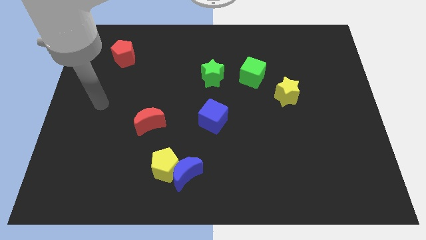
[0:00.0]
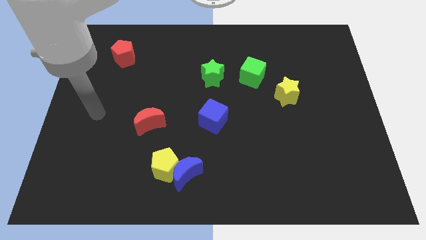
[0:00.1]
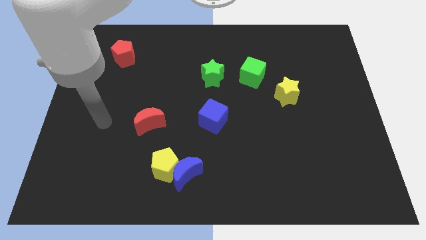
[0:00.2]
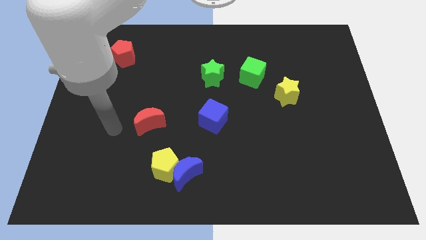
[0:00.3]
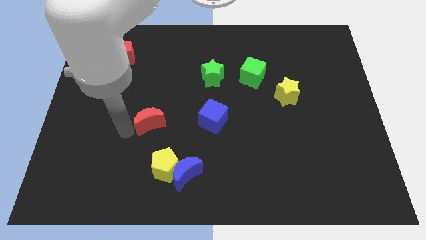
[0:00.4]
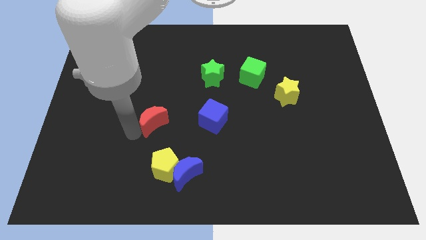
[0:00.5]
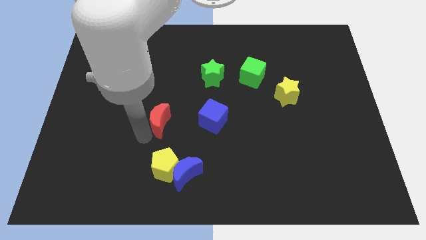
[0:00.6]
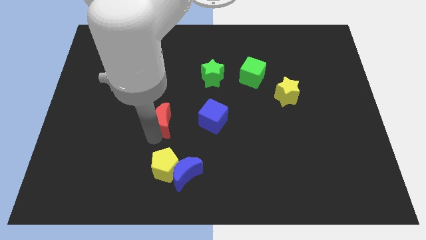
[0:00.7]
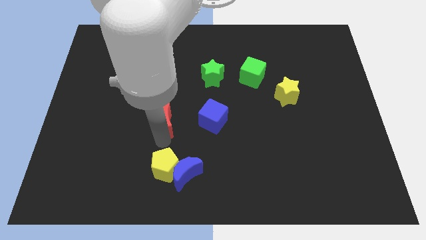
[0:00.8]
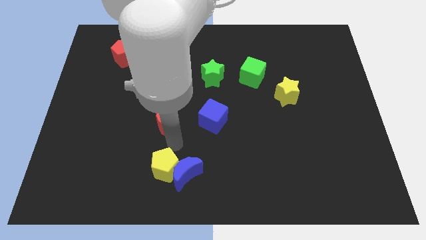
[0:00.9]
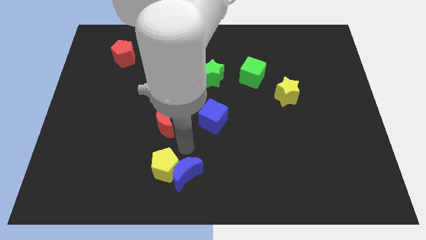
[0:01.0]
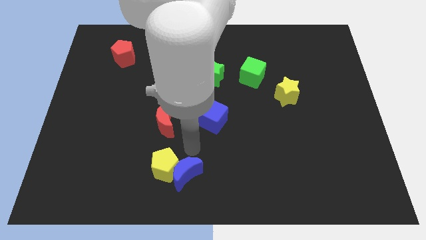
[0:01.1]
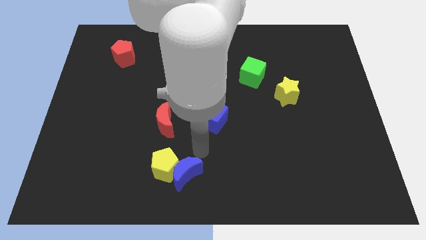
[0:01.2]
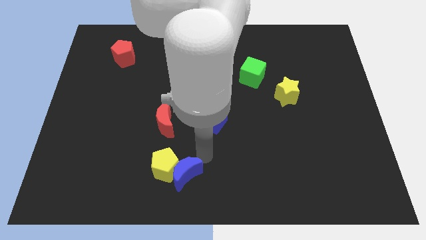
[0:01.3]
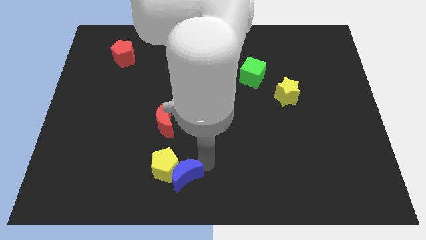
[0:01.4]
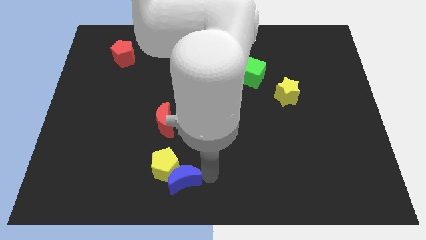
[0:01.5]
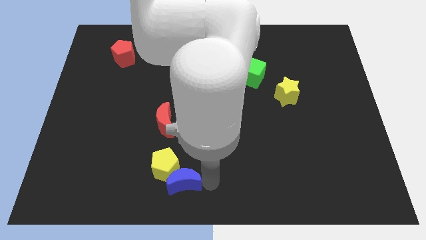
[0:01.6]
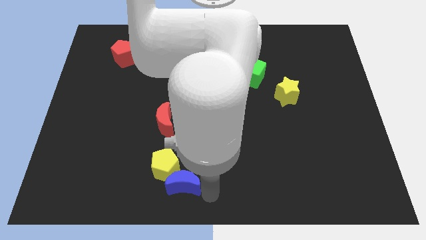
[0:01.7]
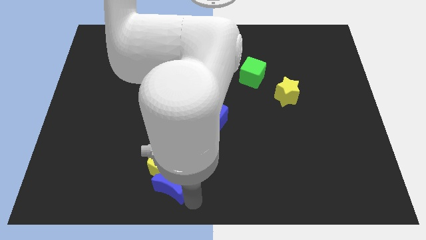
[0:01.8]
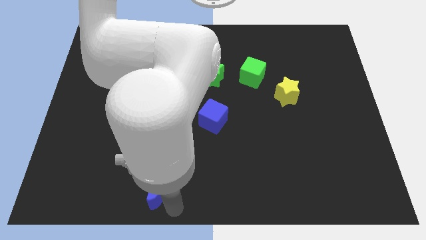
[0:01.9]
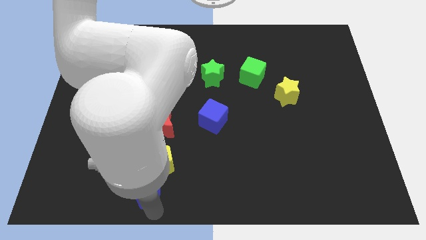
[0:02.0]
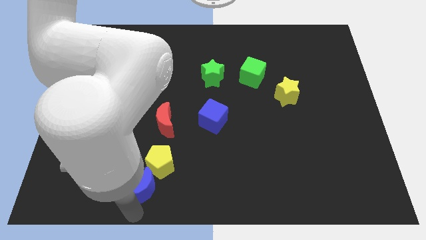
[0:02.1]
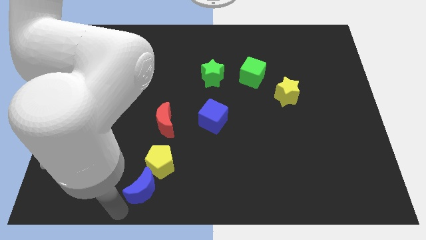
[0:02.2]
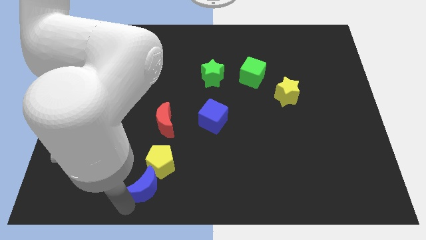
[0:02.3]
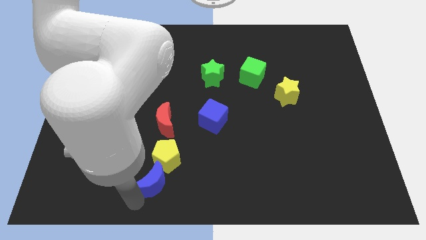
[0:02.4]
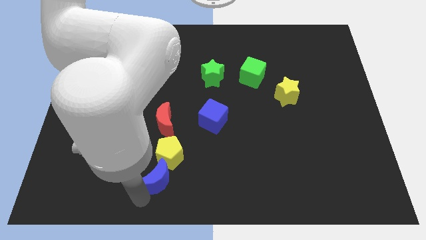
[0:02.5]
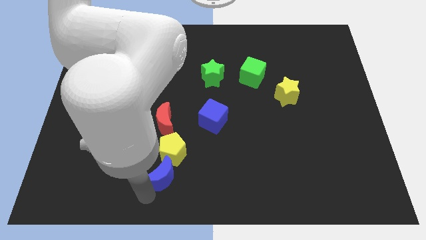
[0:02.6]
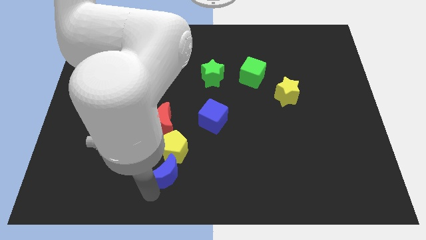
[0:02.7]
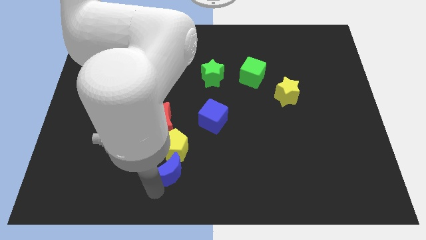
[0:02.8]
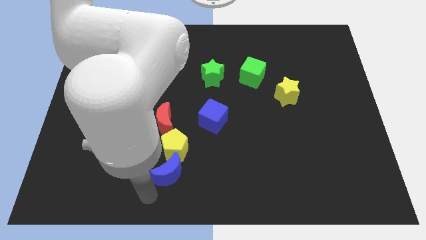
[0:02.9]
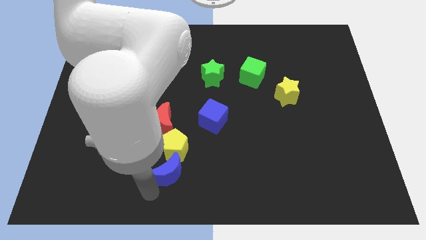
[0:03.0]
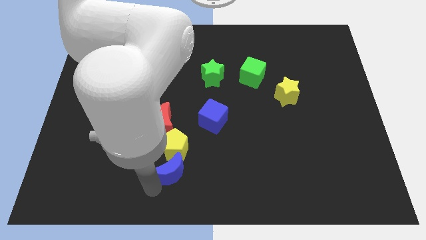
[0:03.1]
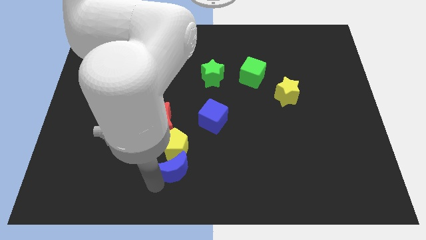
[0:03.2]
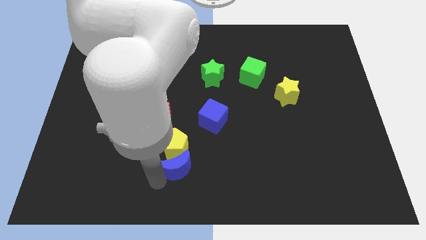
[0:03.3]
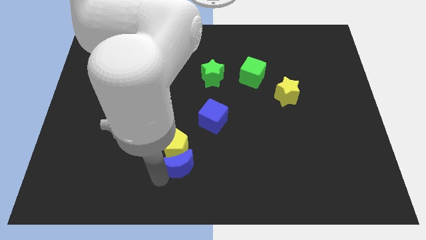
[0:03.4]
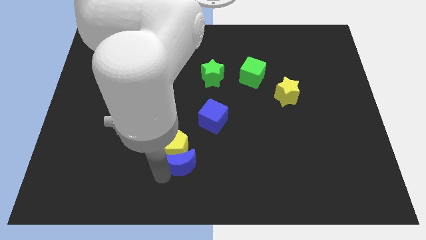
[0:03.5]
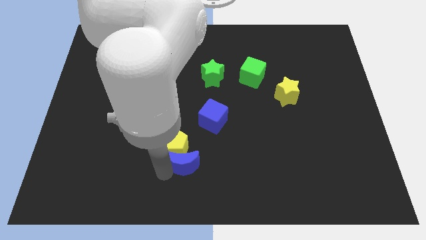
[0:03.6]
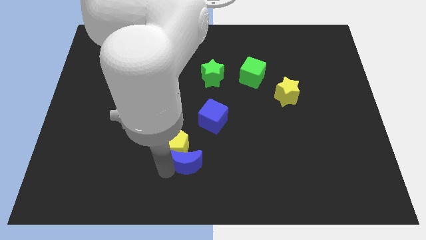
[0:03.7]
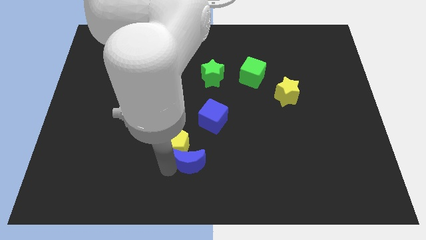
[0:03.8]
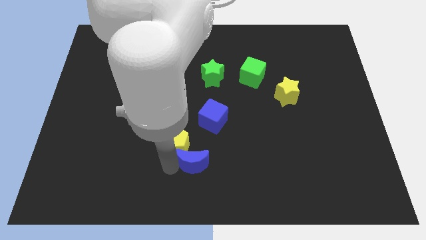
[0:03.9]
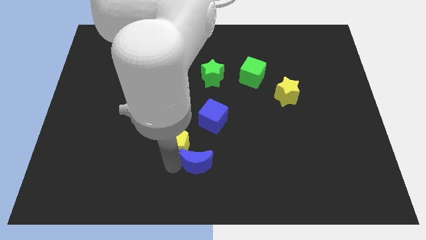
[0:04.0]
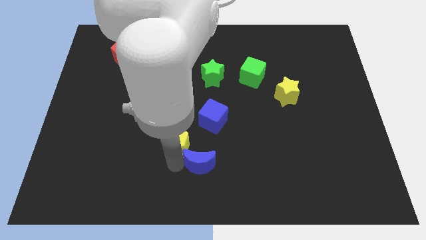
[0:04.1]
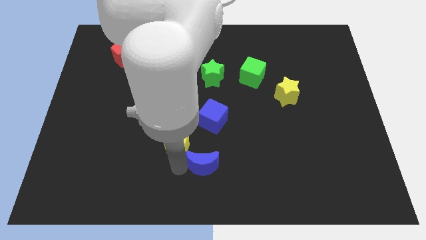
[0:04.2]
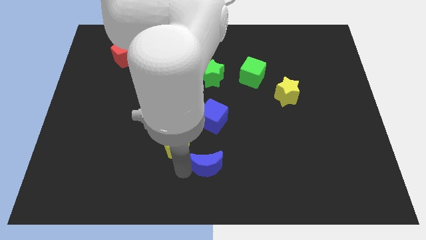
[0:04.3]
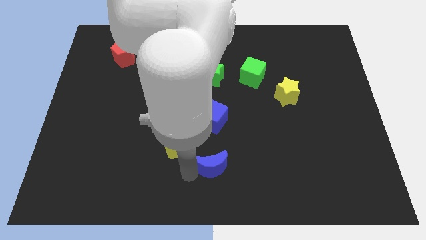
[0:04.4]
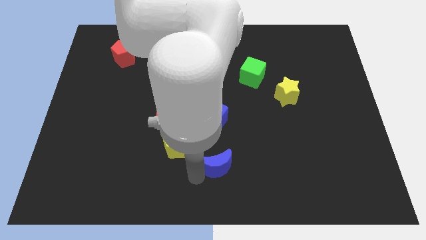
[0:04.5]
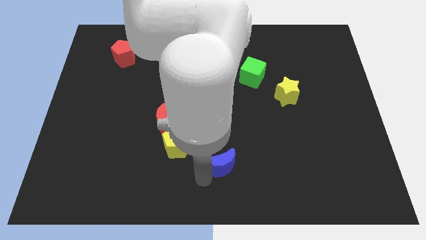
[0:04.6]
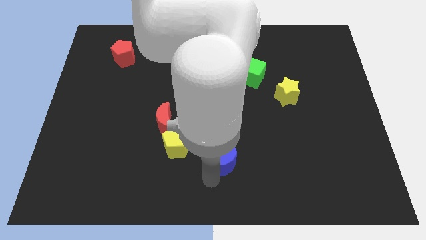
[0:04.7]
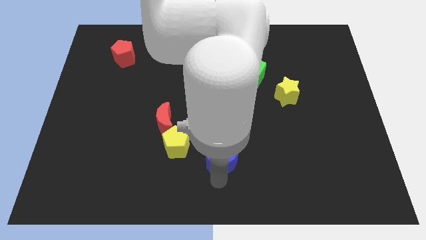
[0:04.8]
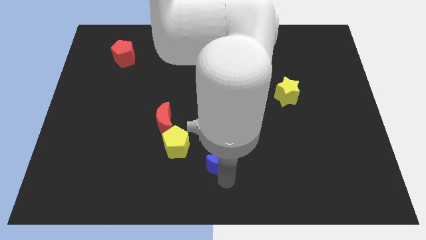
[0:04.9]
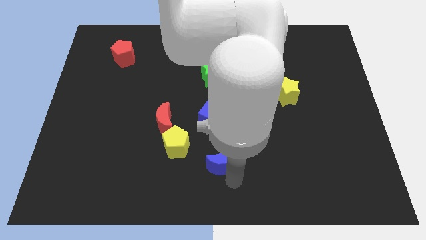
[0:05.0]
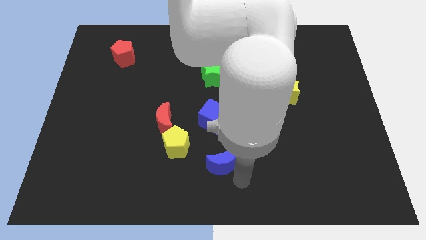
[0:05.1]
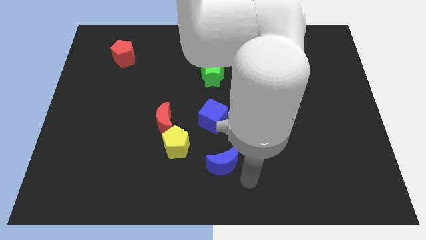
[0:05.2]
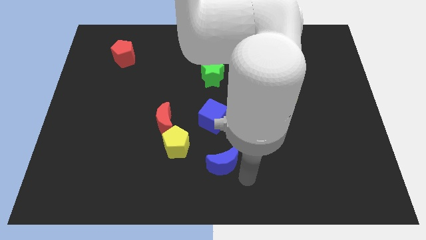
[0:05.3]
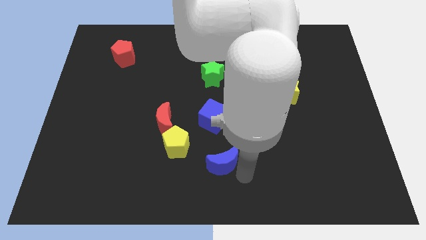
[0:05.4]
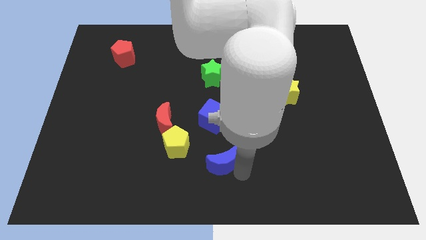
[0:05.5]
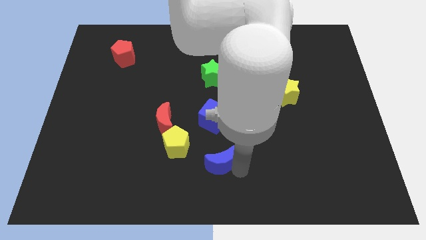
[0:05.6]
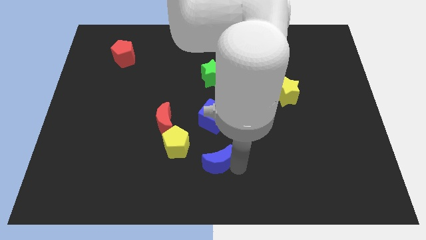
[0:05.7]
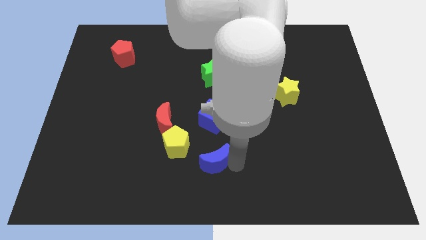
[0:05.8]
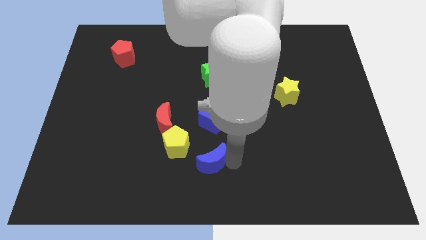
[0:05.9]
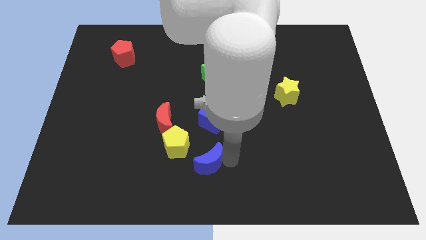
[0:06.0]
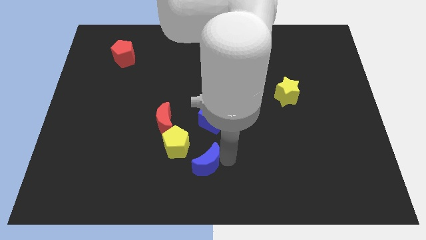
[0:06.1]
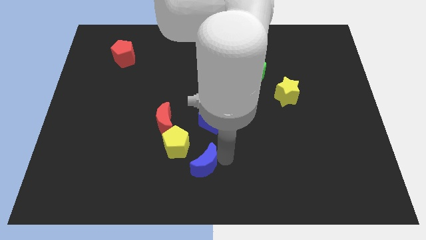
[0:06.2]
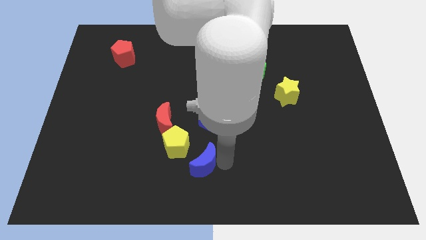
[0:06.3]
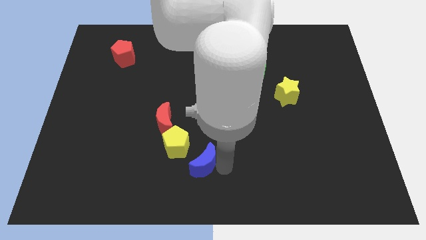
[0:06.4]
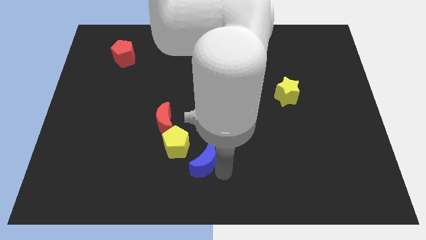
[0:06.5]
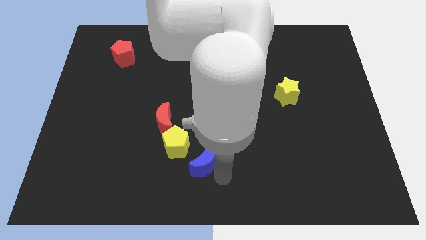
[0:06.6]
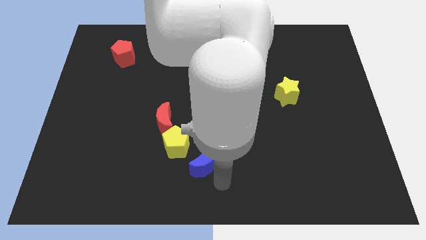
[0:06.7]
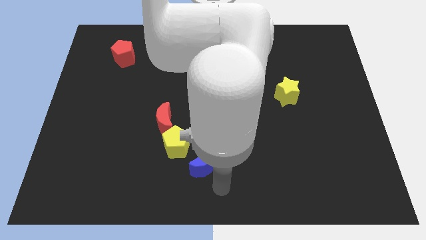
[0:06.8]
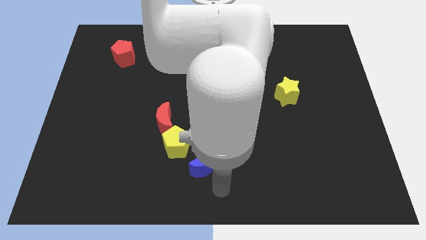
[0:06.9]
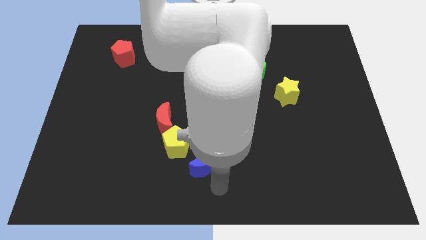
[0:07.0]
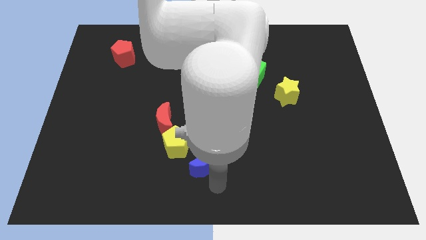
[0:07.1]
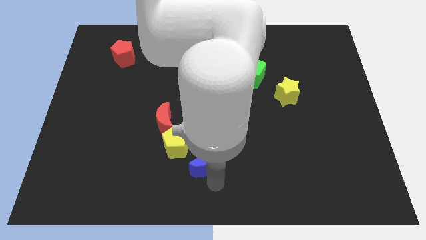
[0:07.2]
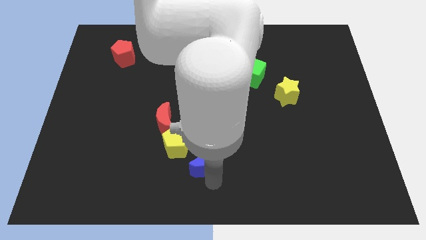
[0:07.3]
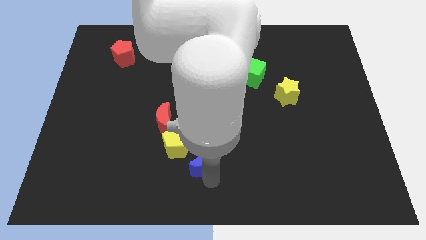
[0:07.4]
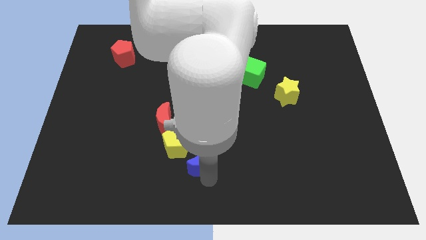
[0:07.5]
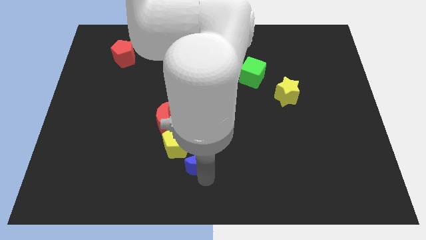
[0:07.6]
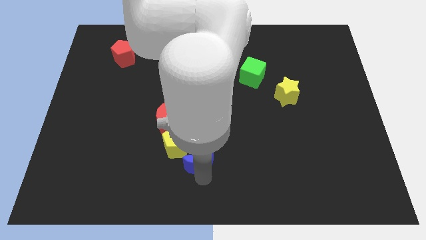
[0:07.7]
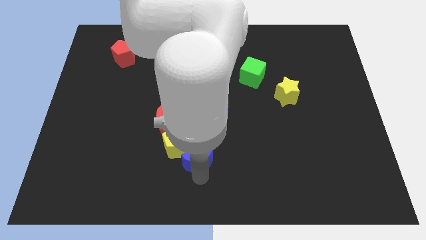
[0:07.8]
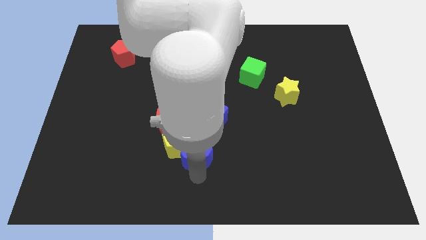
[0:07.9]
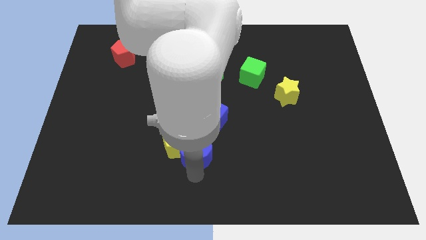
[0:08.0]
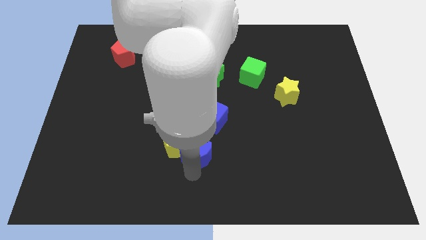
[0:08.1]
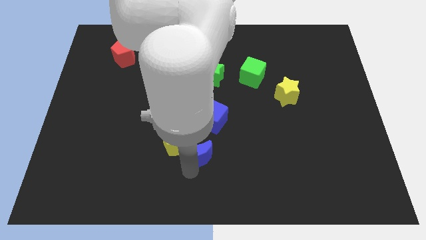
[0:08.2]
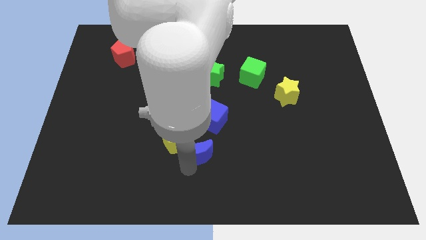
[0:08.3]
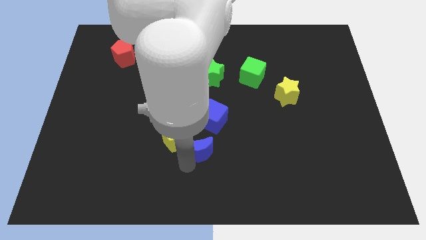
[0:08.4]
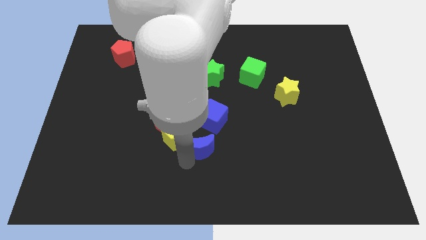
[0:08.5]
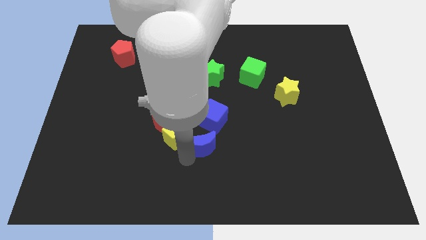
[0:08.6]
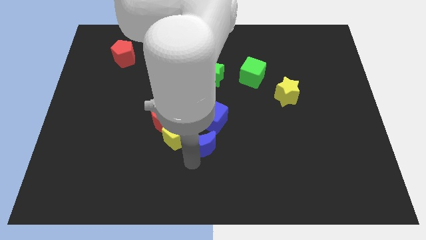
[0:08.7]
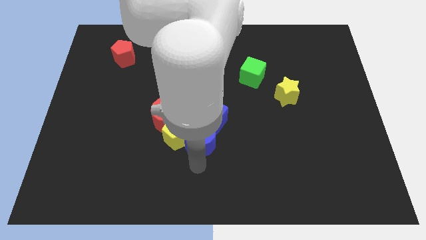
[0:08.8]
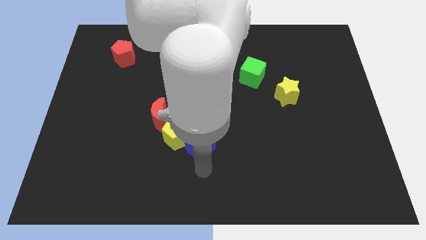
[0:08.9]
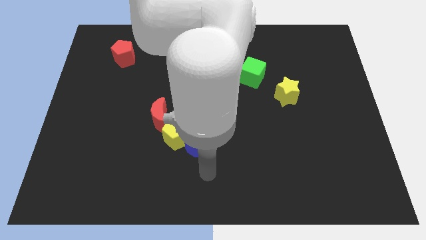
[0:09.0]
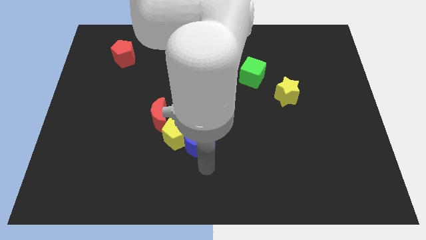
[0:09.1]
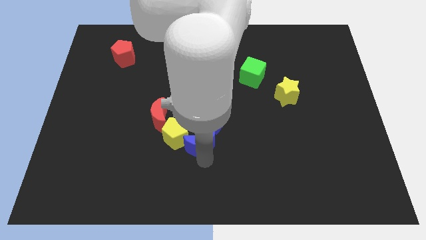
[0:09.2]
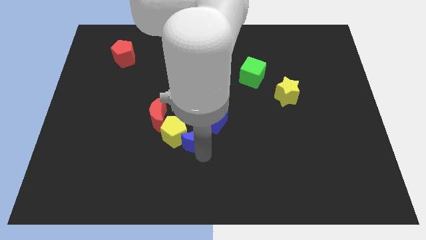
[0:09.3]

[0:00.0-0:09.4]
push the blue moon to the center of the board
